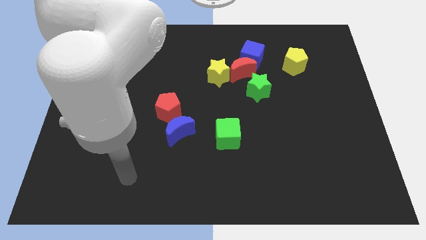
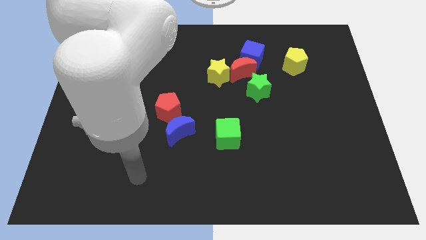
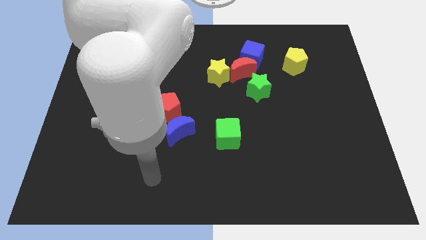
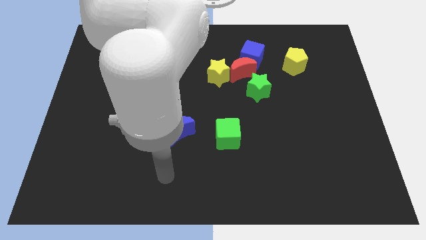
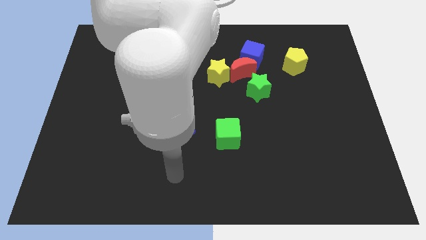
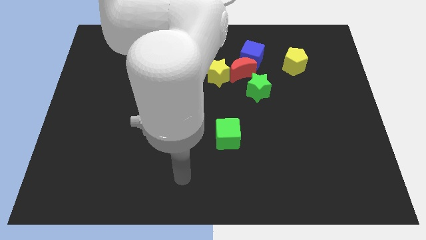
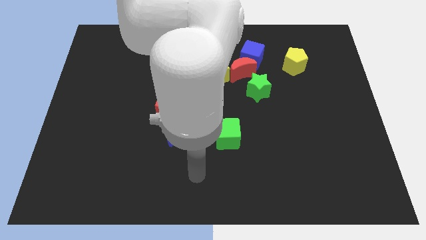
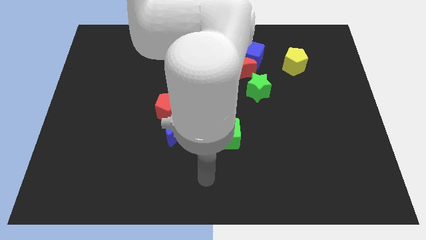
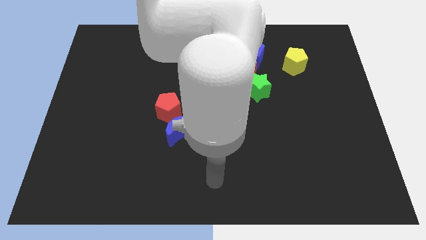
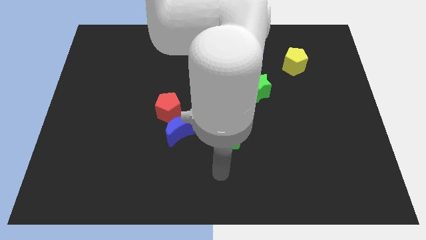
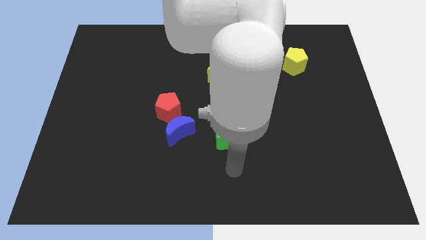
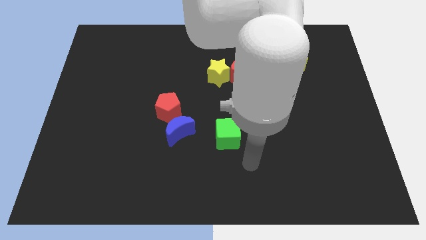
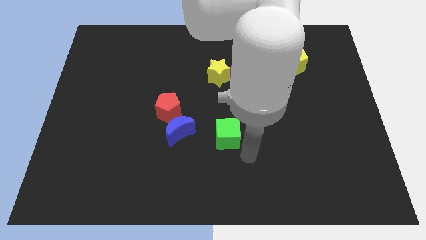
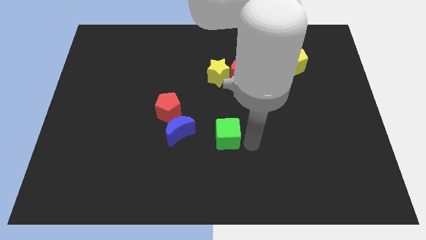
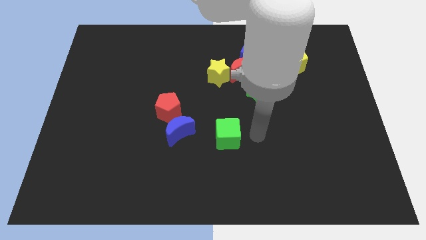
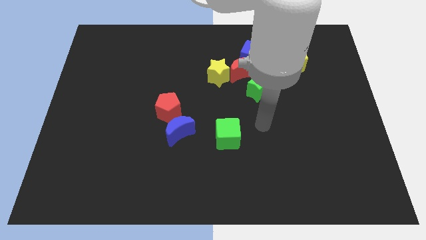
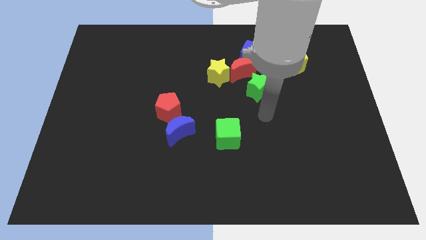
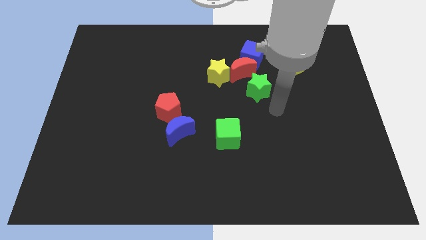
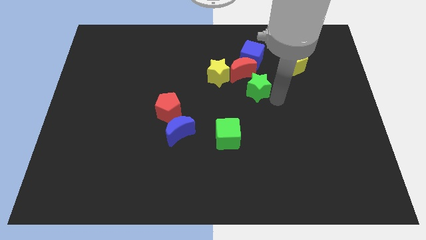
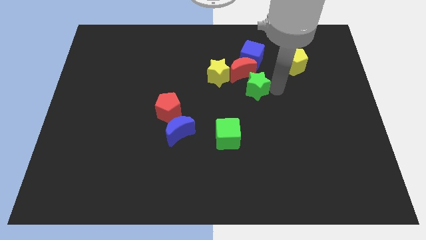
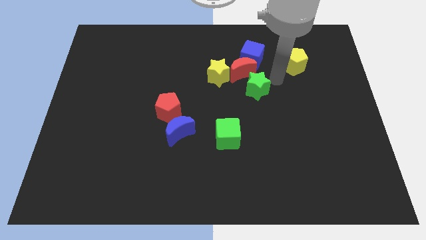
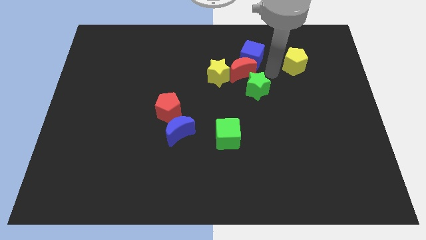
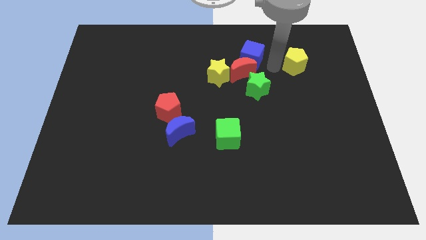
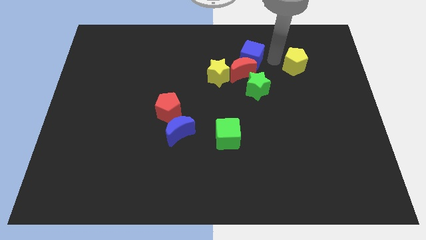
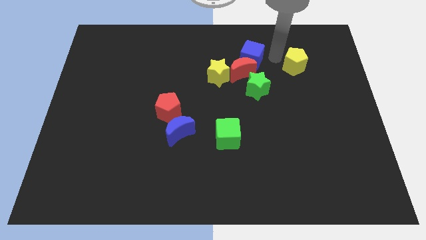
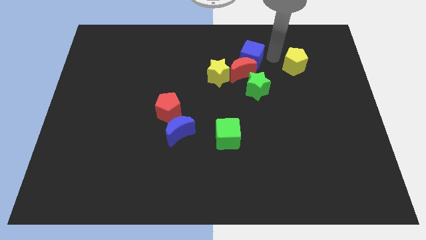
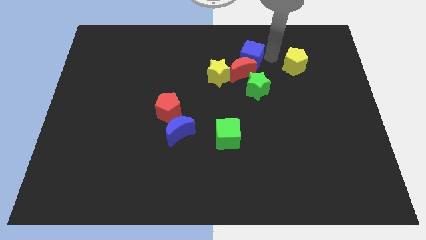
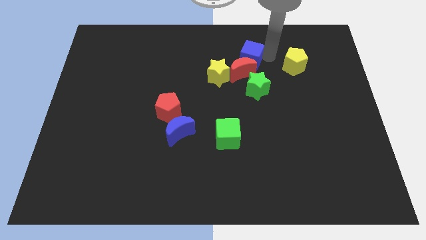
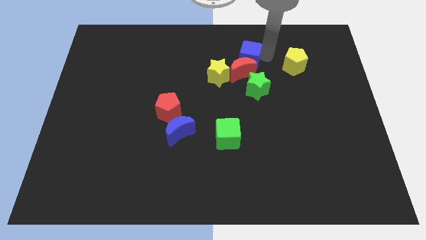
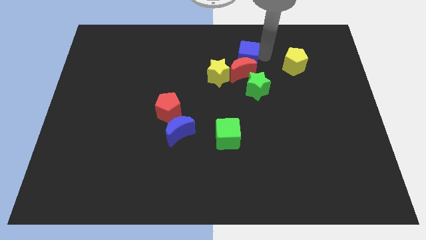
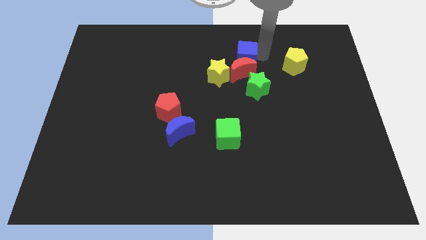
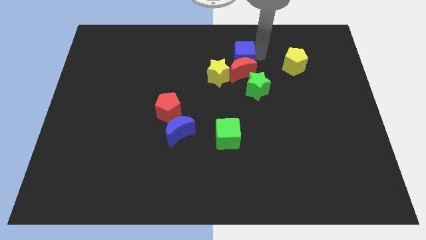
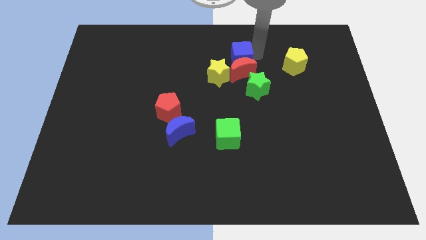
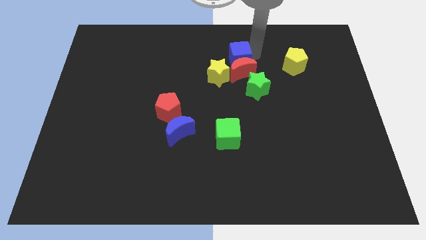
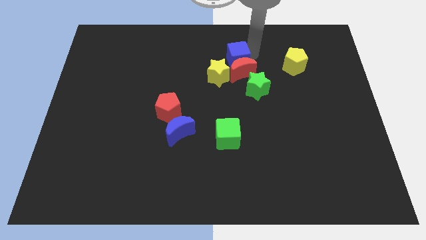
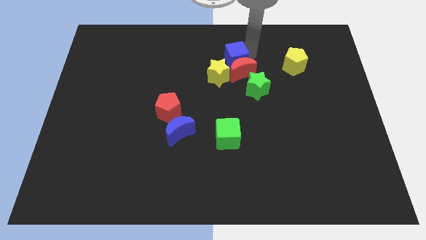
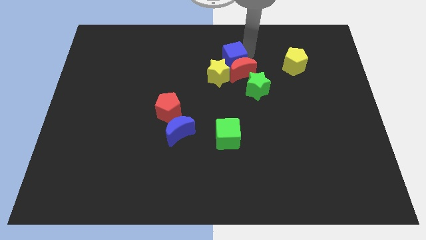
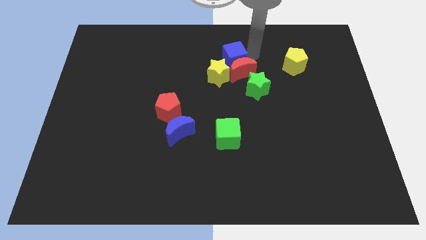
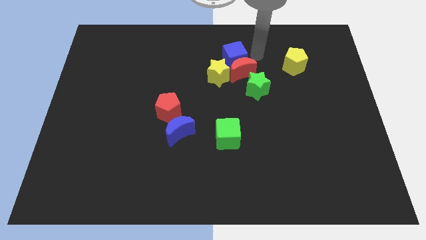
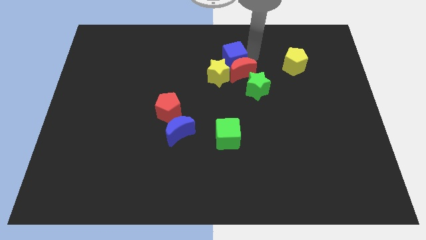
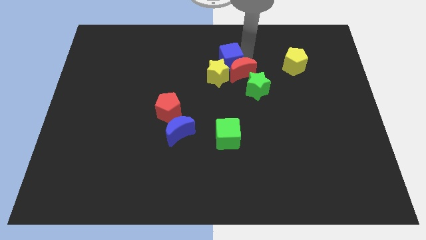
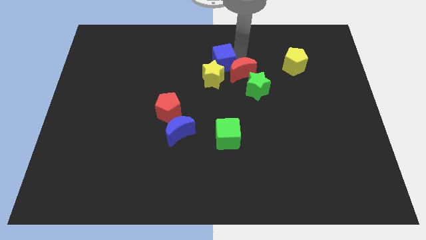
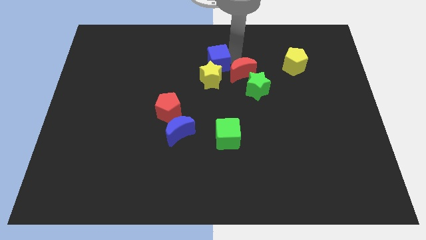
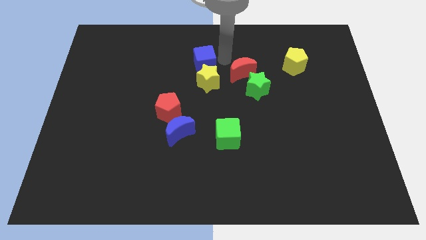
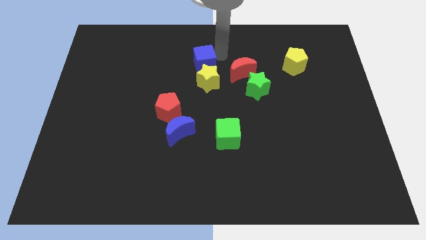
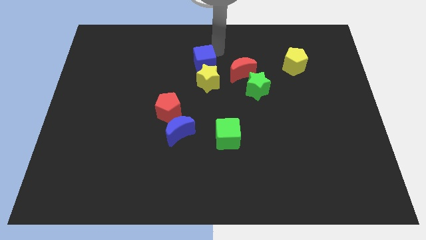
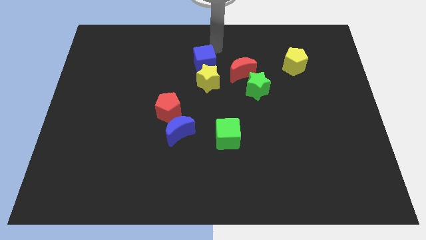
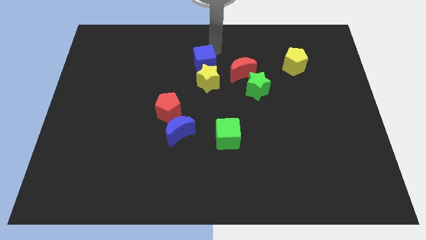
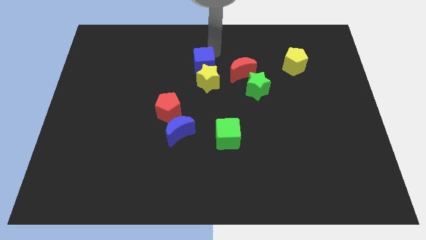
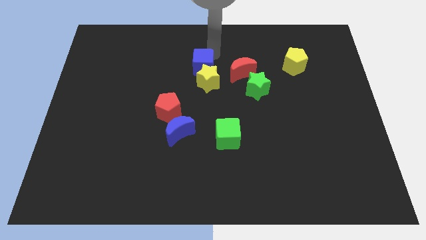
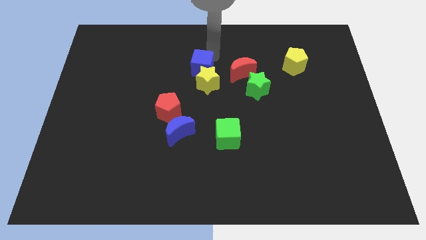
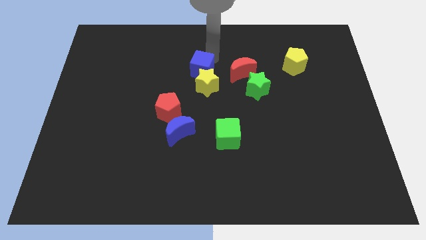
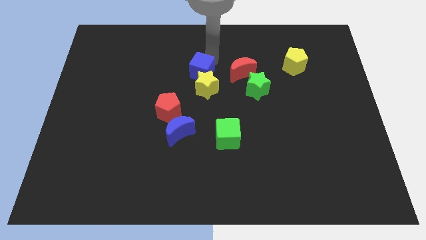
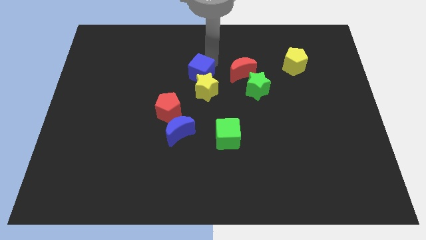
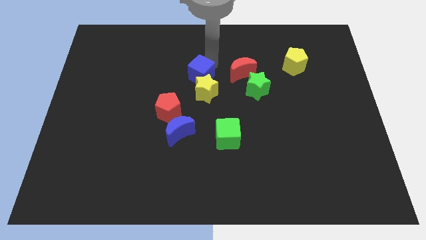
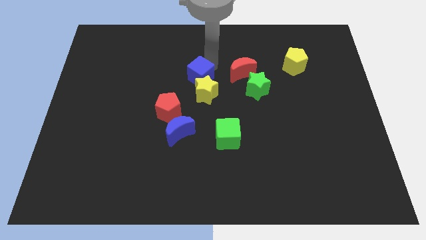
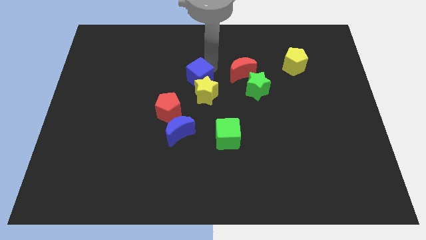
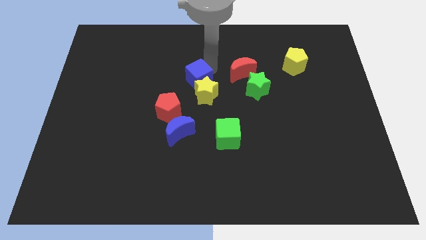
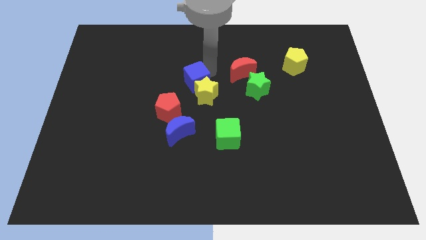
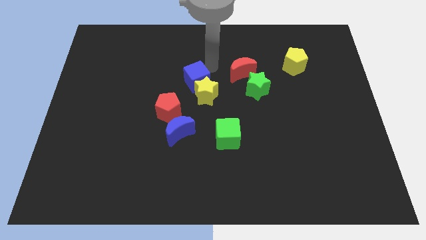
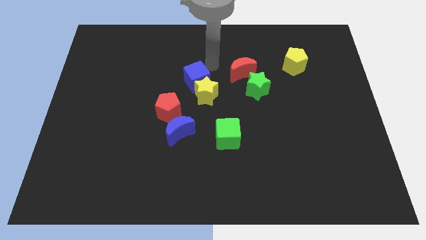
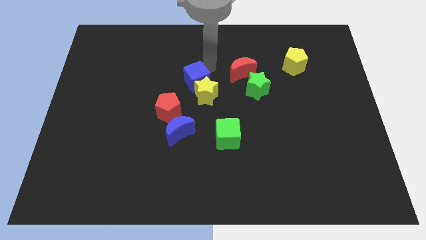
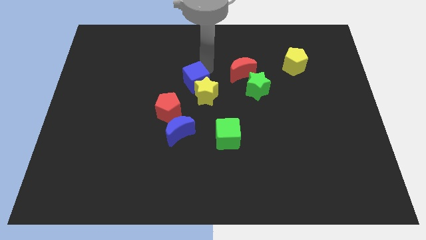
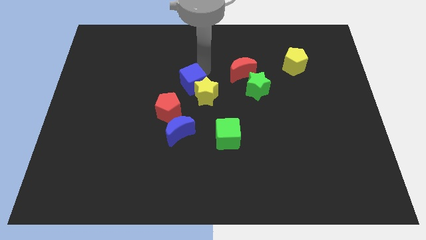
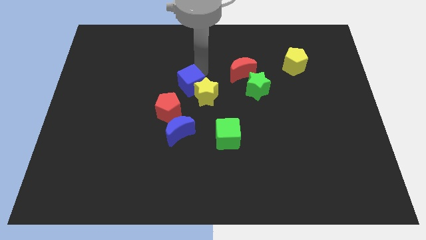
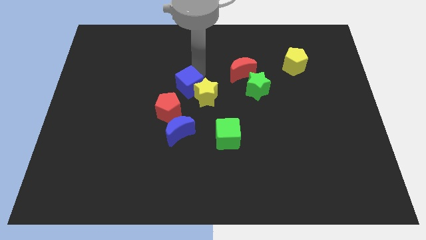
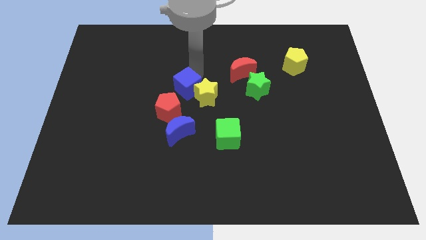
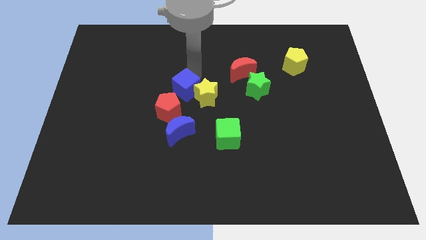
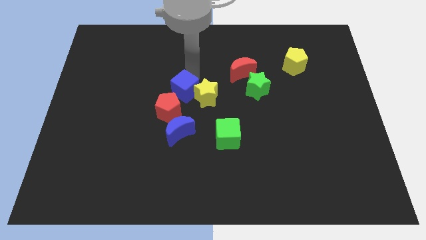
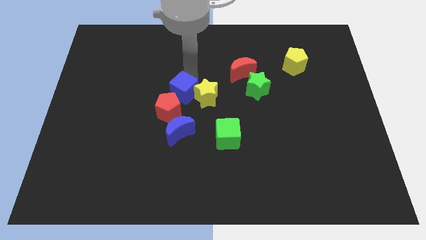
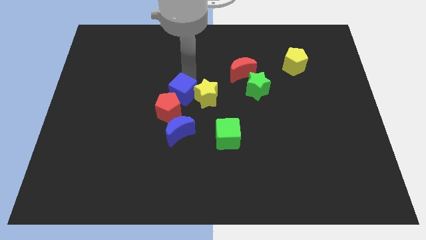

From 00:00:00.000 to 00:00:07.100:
move the blue cube to the red pentagon
